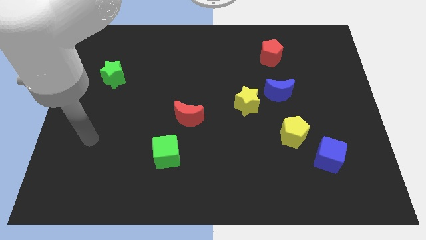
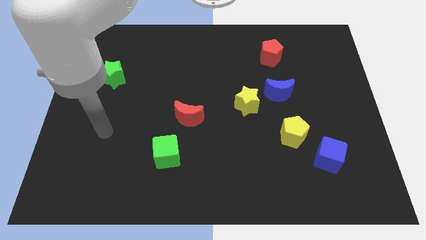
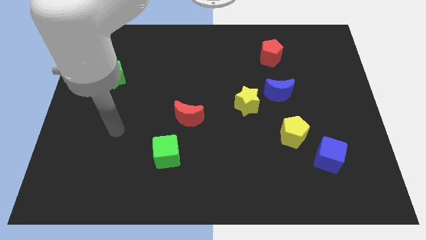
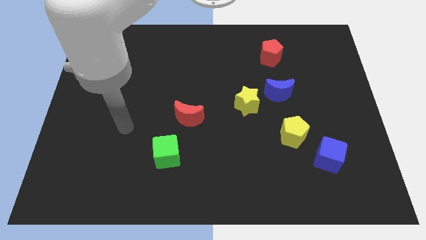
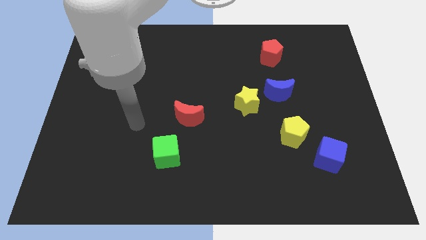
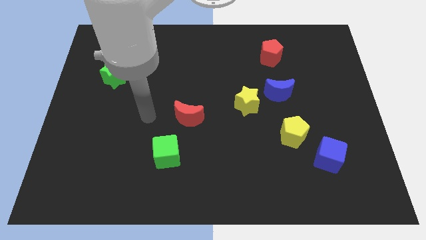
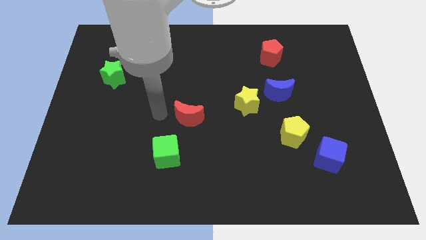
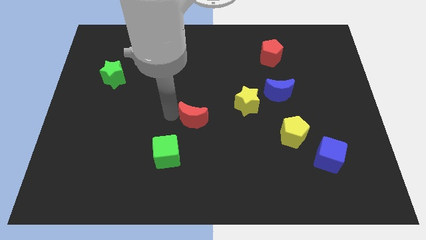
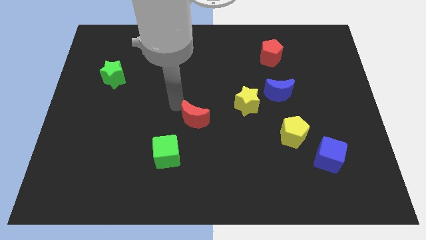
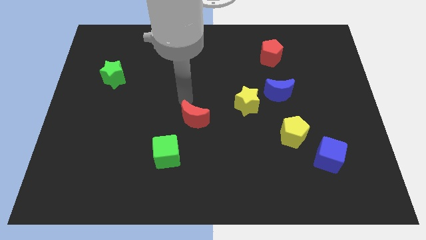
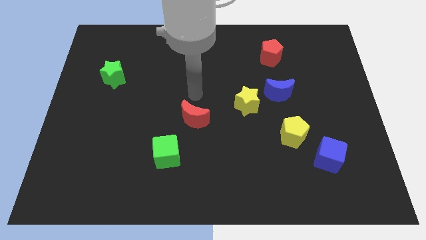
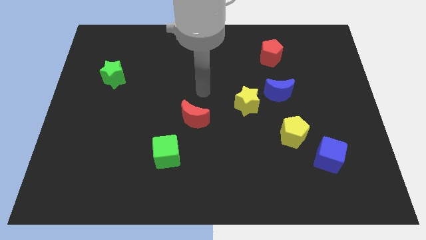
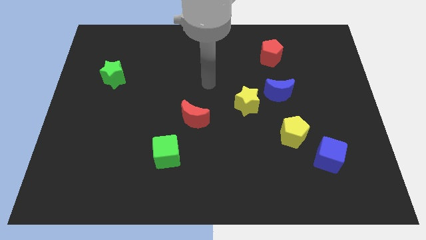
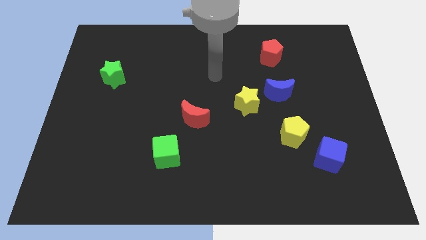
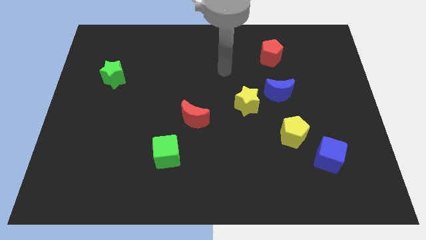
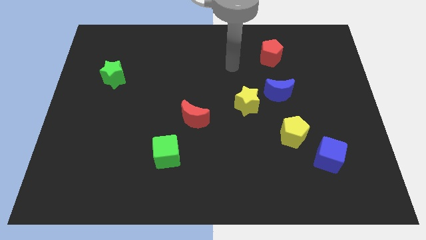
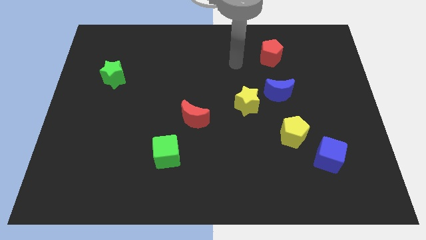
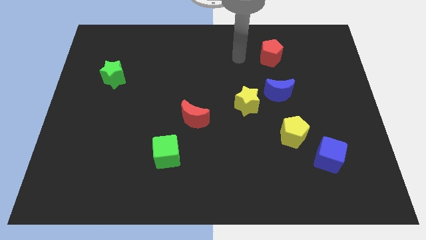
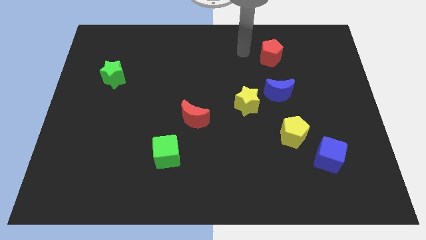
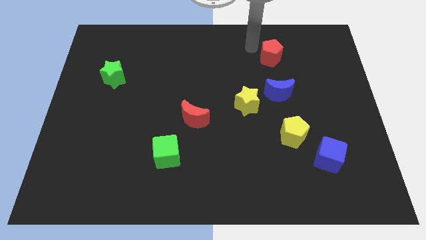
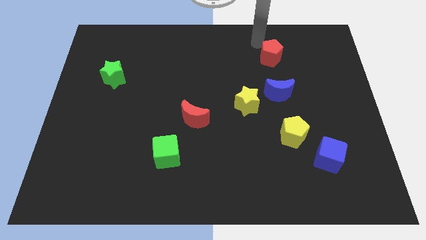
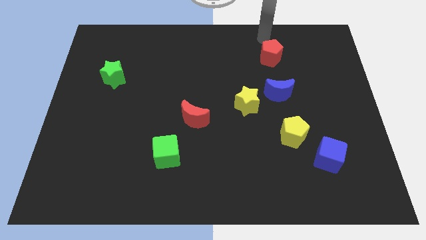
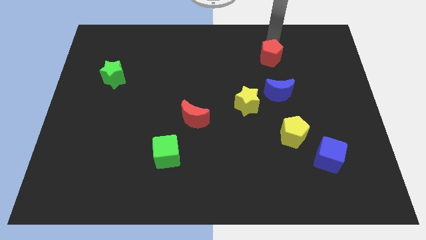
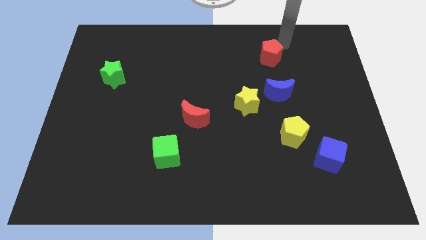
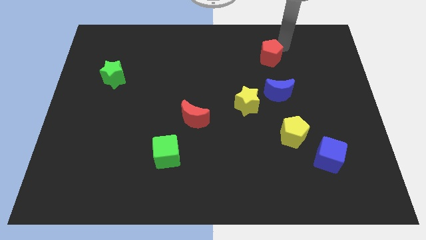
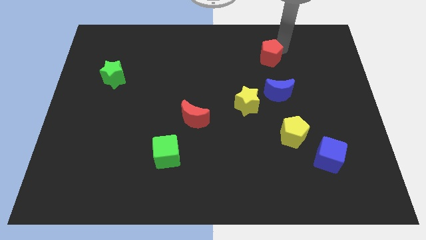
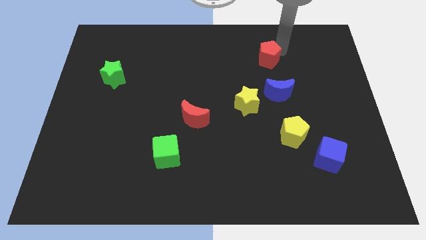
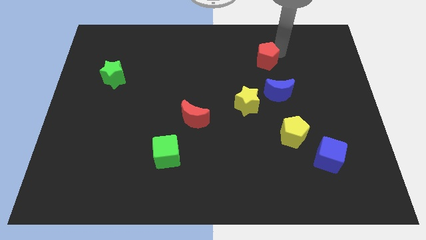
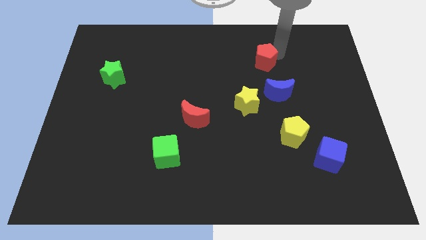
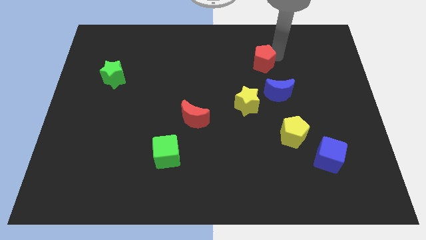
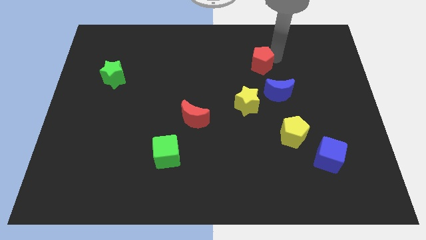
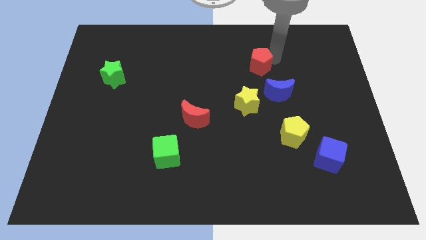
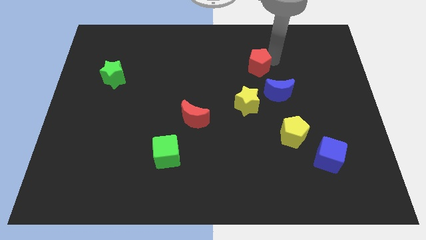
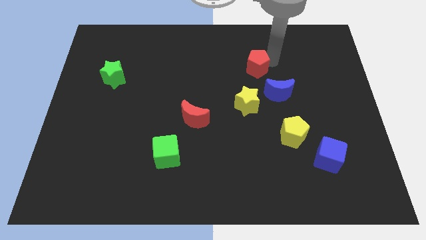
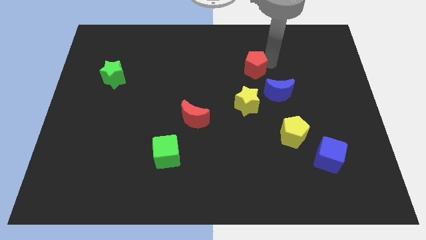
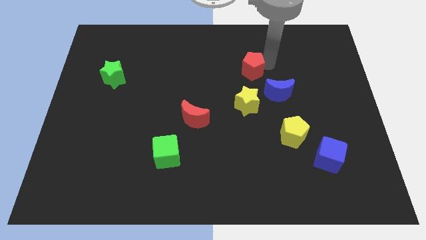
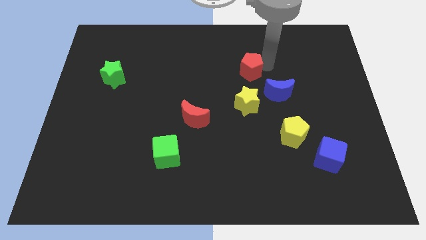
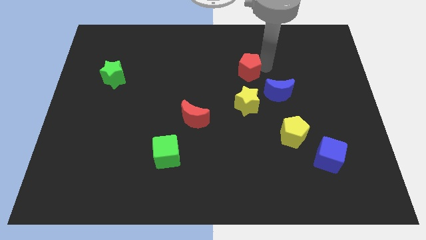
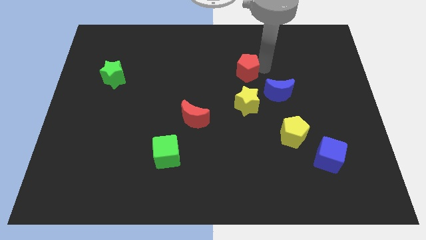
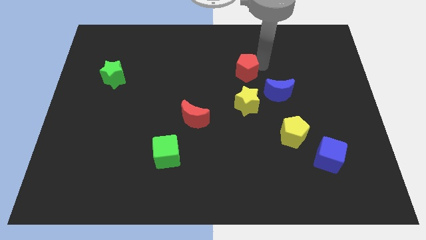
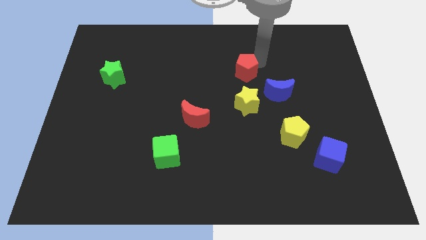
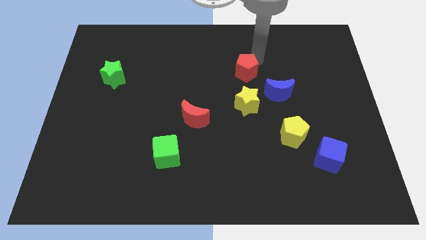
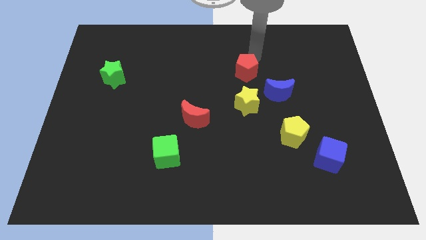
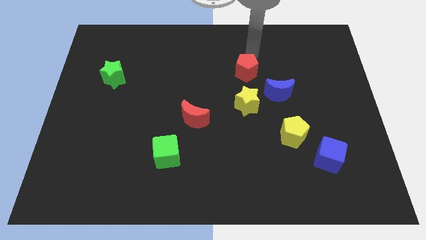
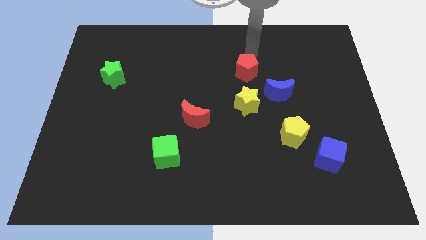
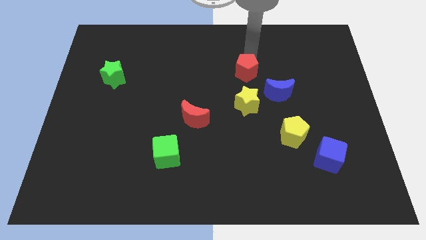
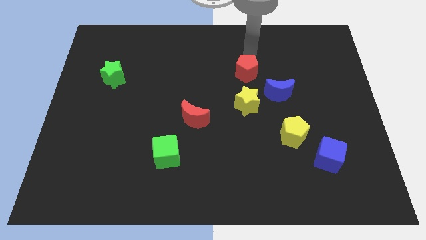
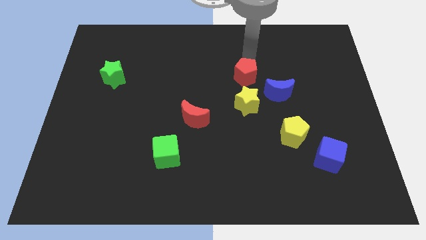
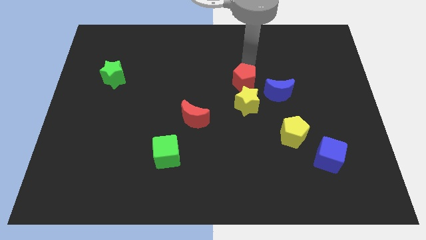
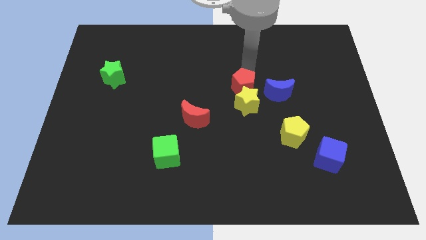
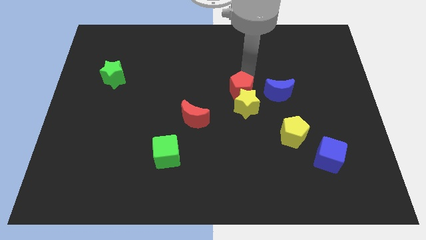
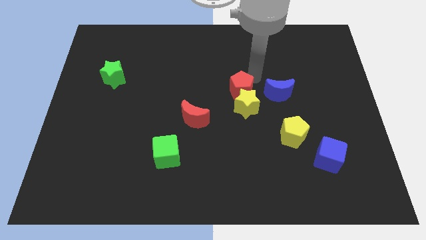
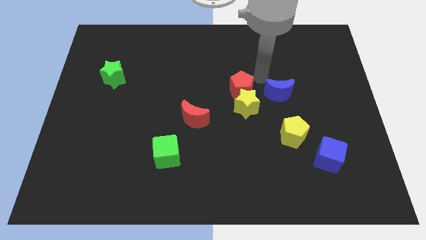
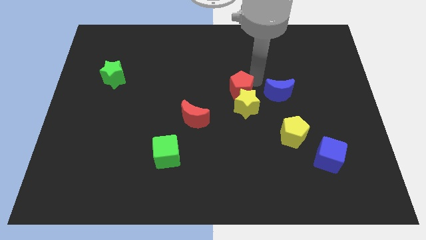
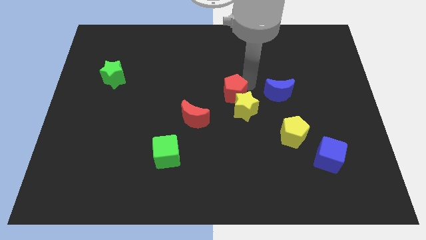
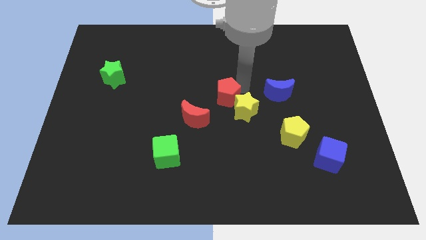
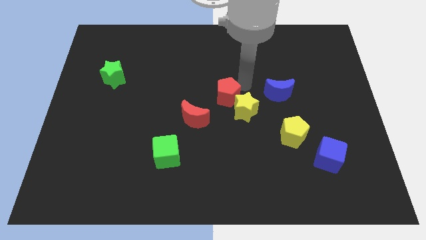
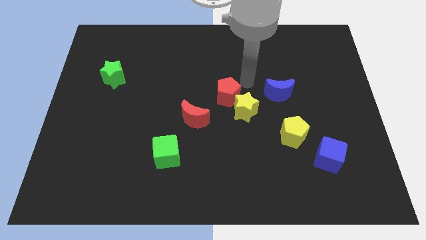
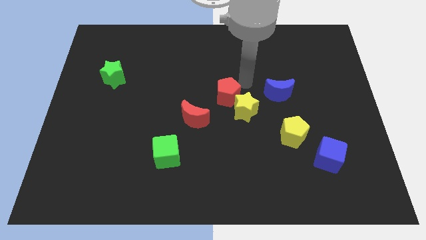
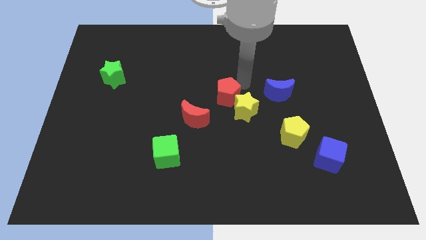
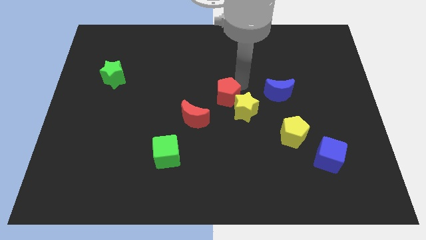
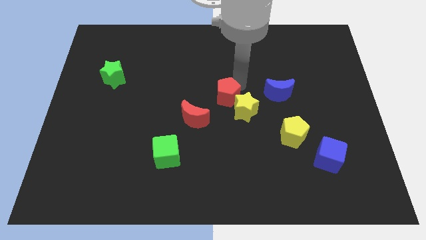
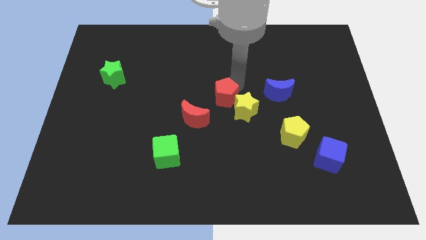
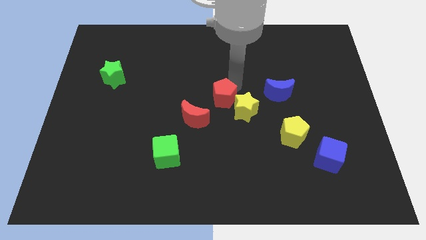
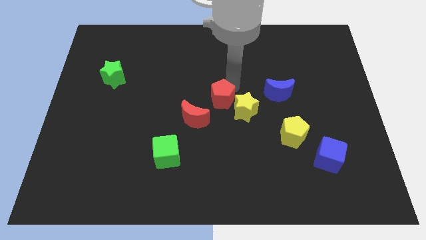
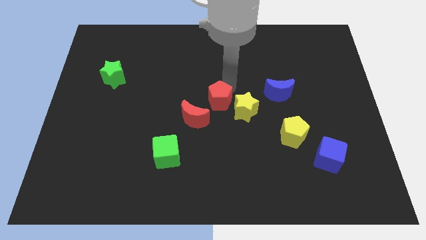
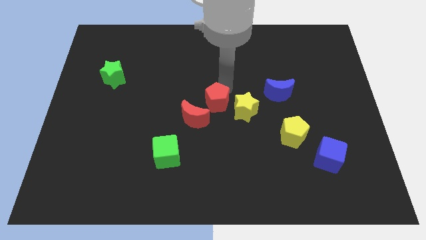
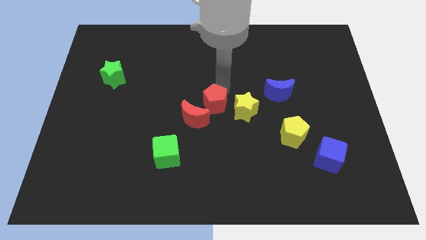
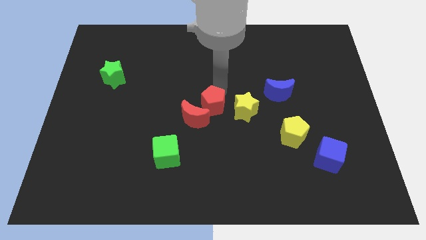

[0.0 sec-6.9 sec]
push the red pentagon towards the red moon
